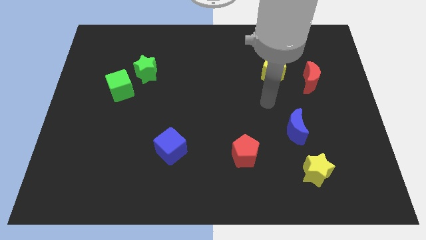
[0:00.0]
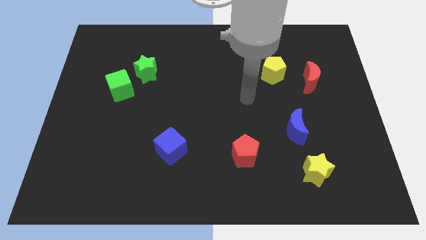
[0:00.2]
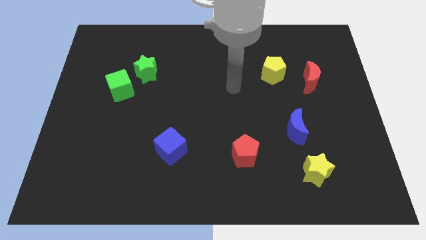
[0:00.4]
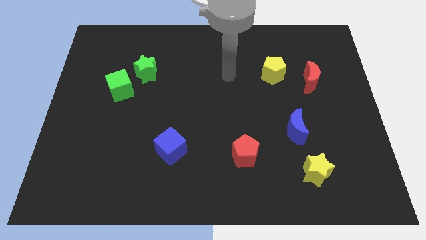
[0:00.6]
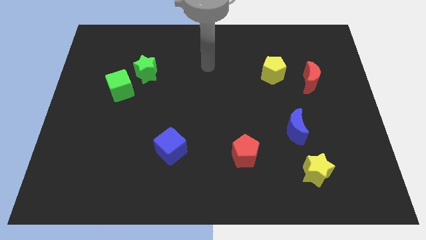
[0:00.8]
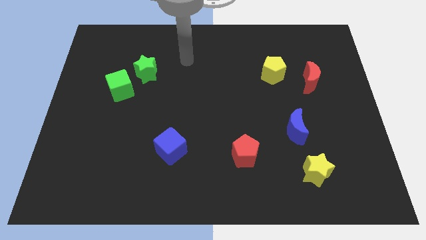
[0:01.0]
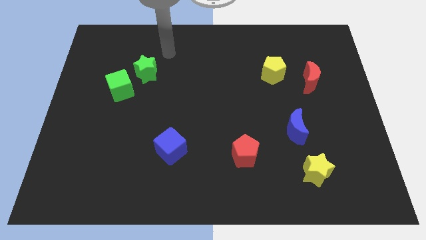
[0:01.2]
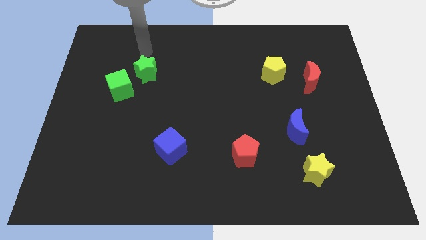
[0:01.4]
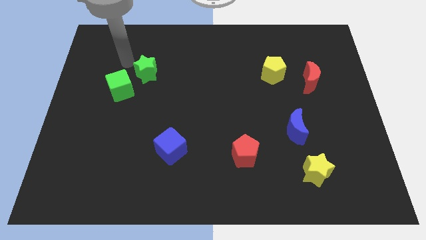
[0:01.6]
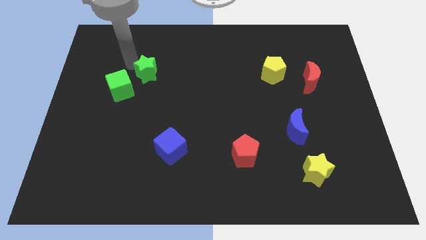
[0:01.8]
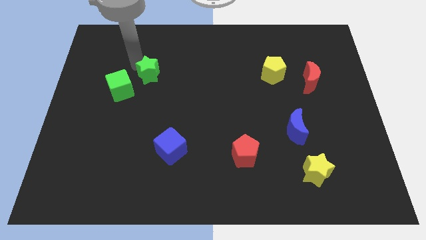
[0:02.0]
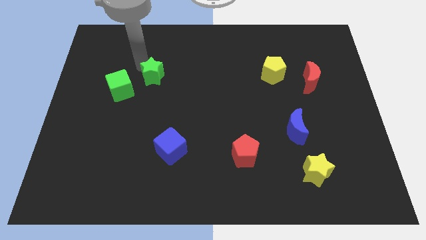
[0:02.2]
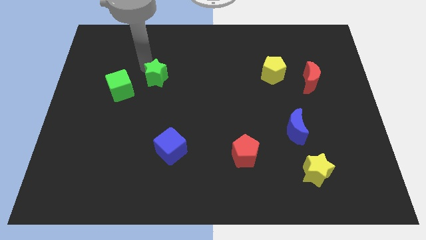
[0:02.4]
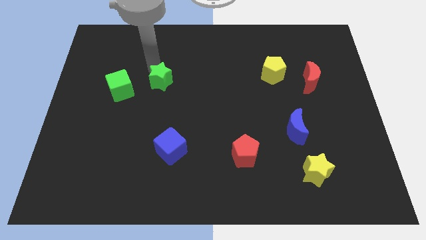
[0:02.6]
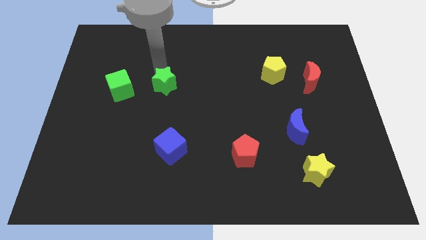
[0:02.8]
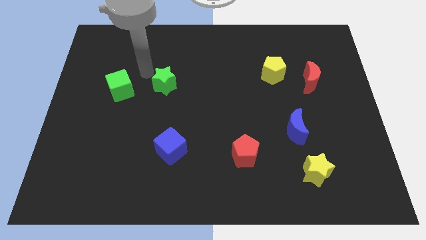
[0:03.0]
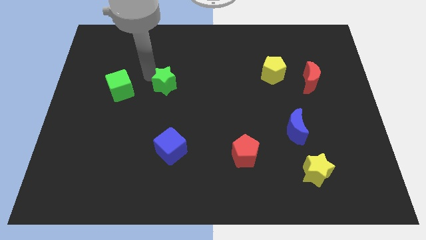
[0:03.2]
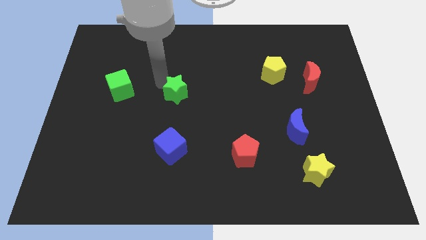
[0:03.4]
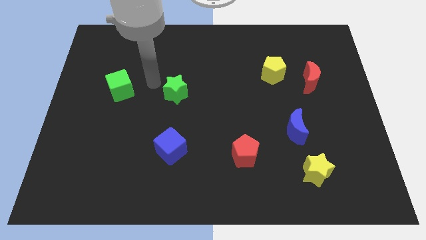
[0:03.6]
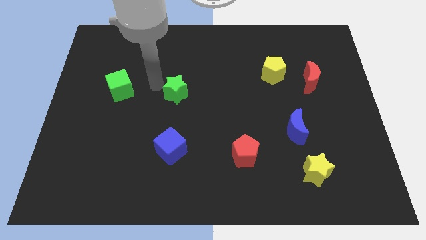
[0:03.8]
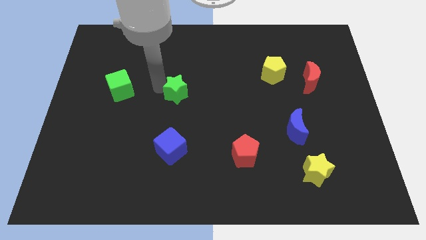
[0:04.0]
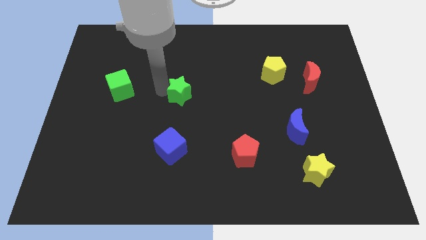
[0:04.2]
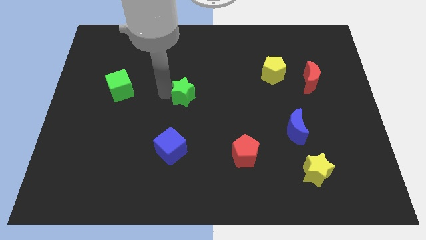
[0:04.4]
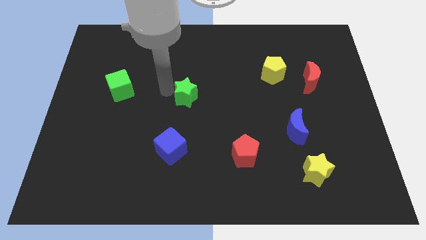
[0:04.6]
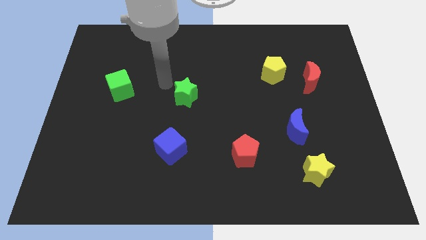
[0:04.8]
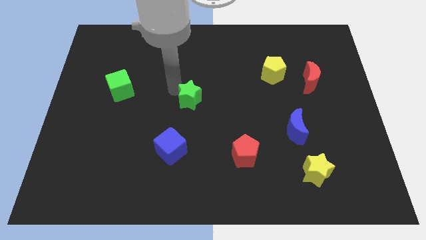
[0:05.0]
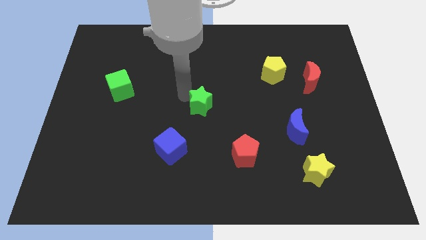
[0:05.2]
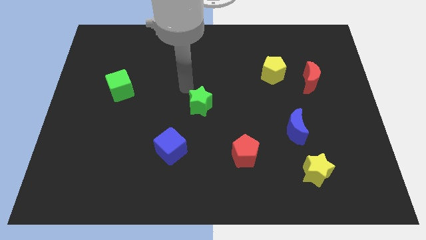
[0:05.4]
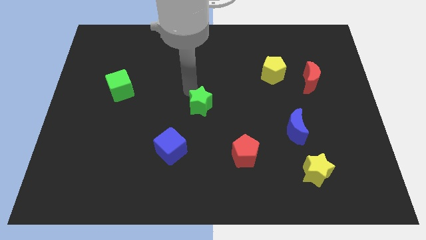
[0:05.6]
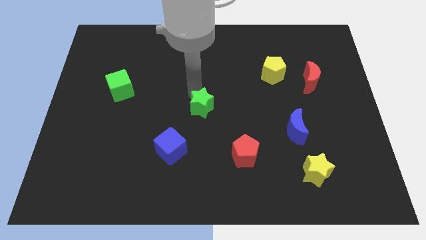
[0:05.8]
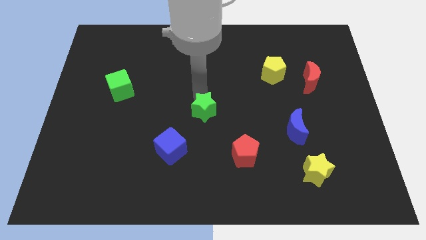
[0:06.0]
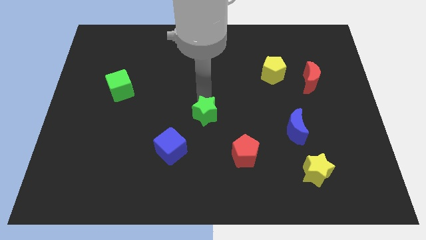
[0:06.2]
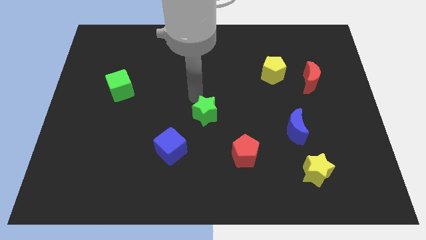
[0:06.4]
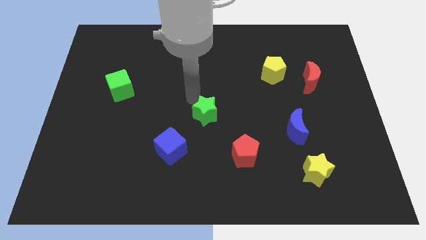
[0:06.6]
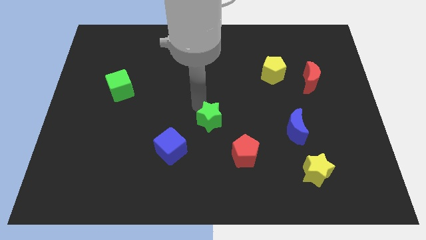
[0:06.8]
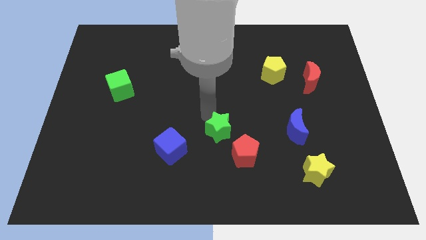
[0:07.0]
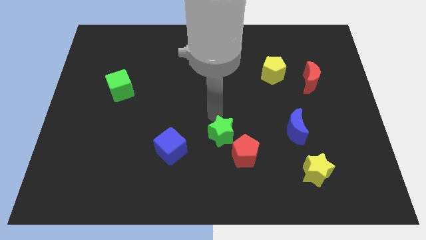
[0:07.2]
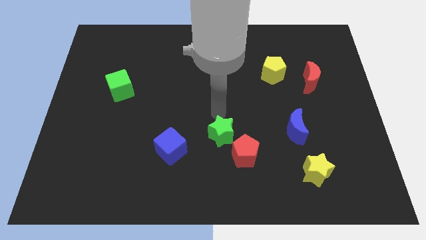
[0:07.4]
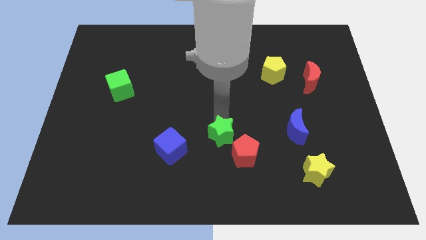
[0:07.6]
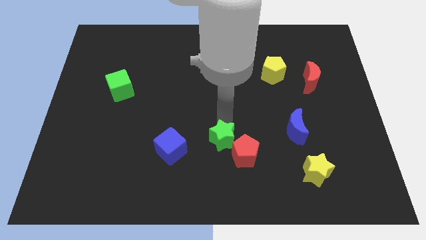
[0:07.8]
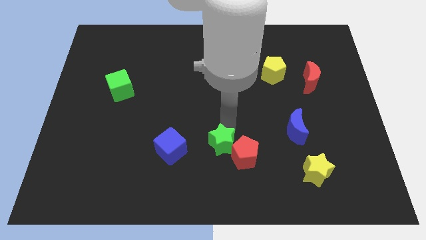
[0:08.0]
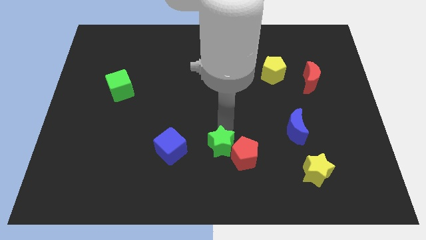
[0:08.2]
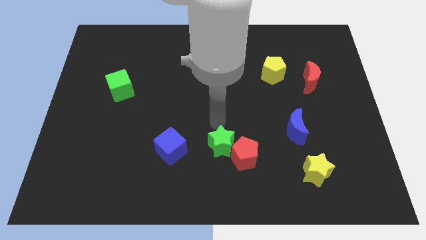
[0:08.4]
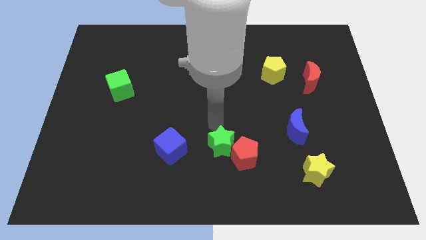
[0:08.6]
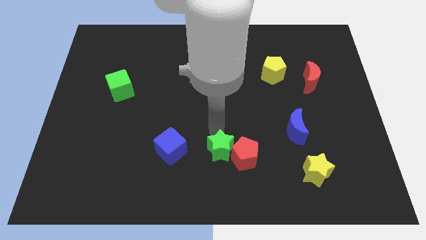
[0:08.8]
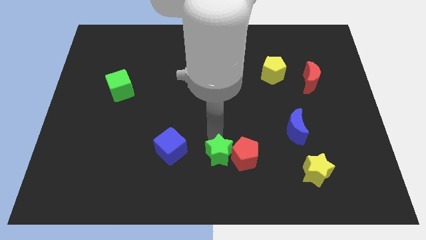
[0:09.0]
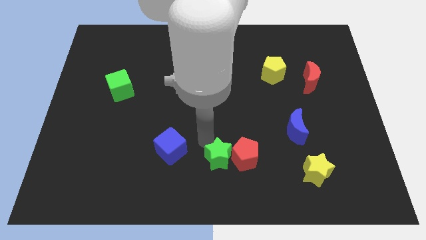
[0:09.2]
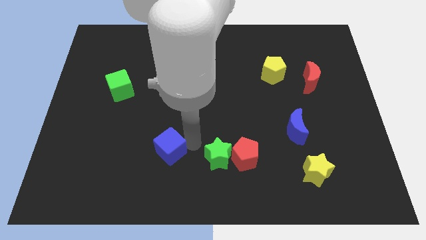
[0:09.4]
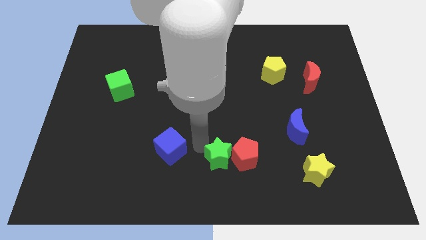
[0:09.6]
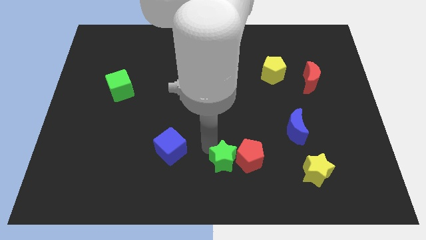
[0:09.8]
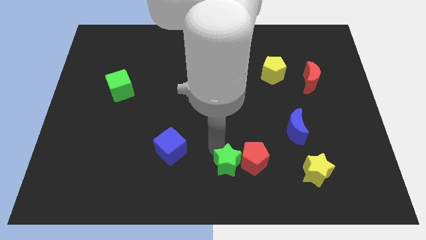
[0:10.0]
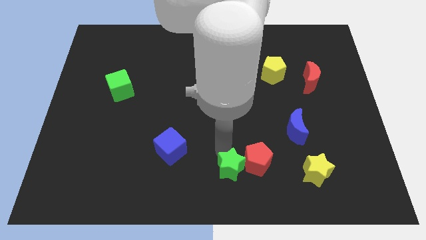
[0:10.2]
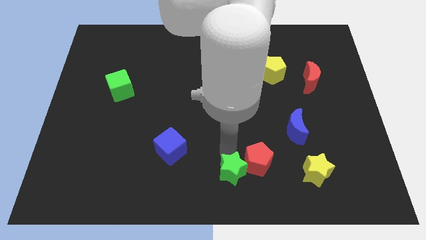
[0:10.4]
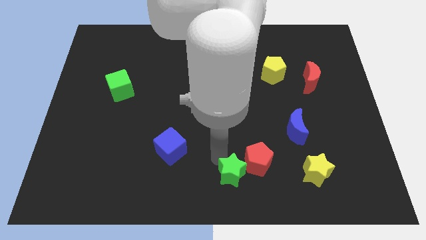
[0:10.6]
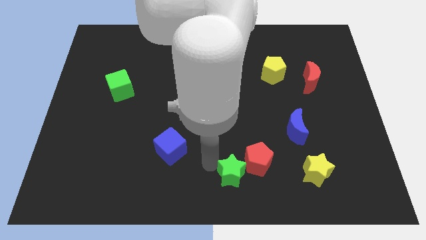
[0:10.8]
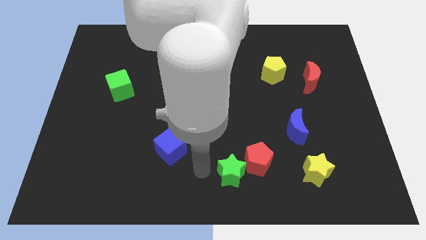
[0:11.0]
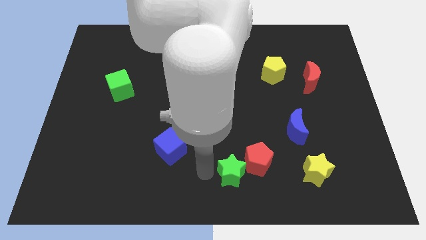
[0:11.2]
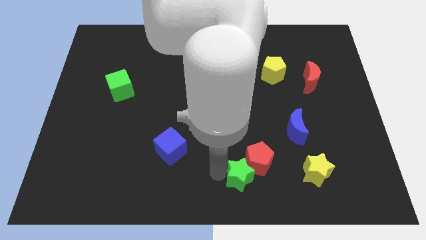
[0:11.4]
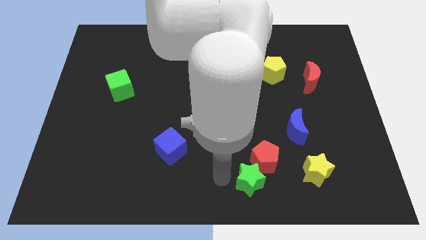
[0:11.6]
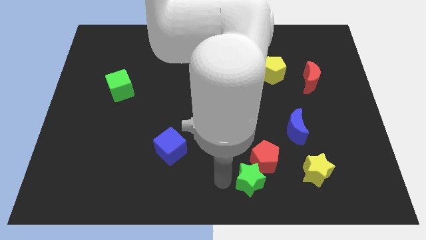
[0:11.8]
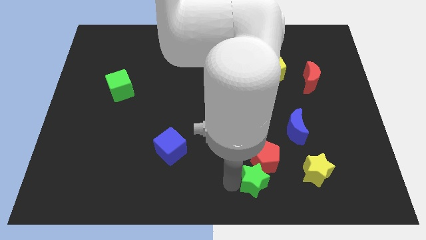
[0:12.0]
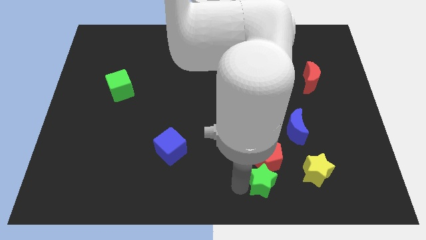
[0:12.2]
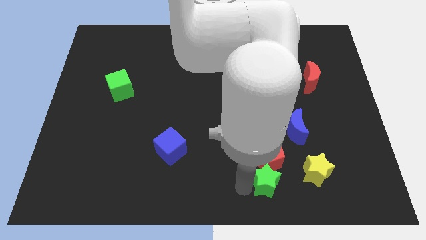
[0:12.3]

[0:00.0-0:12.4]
move the green star to the bottom right side of the red pentagon

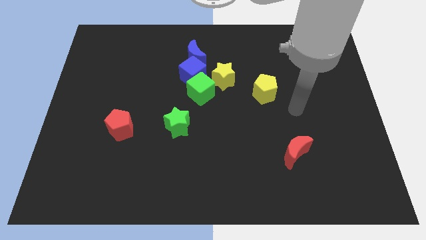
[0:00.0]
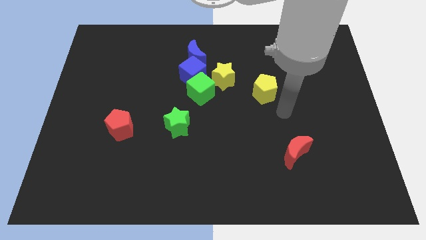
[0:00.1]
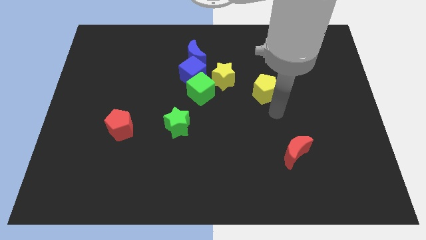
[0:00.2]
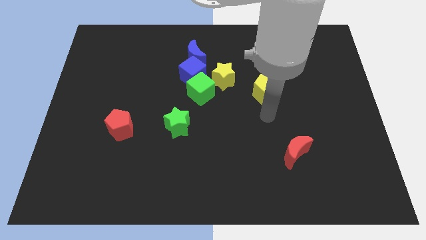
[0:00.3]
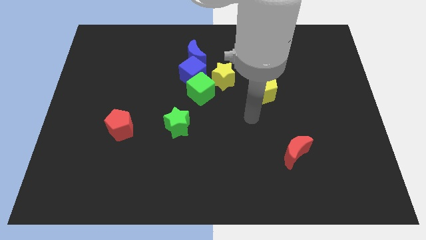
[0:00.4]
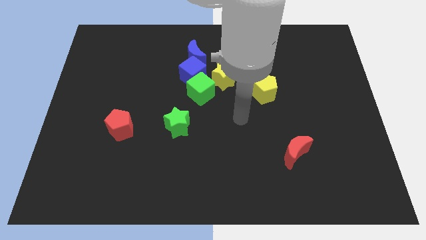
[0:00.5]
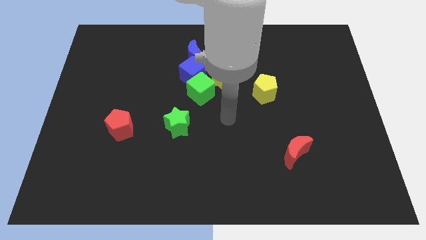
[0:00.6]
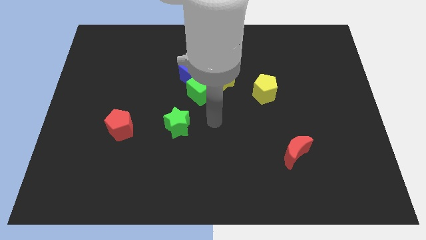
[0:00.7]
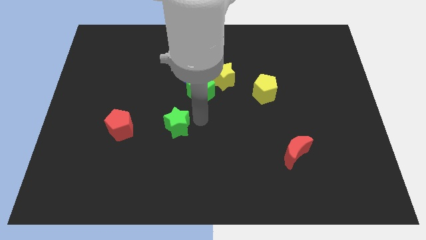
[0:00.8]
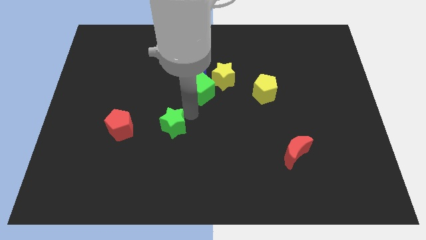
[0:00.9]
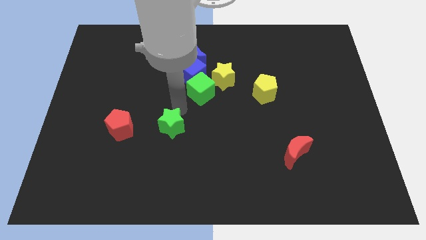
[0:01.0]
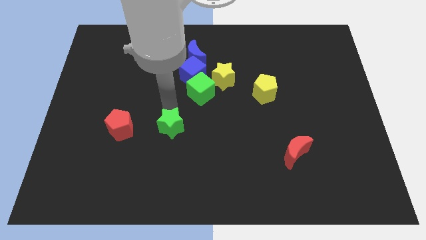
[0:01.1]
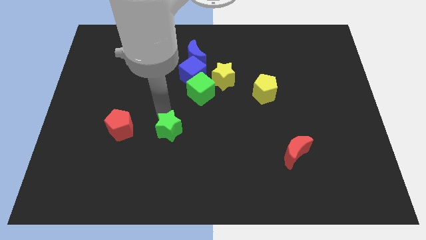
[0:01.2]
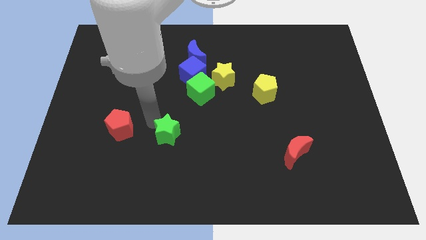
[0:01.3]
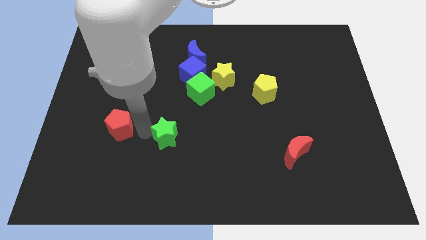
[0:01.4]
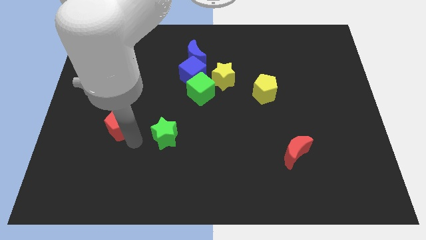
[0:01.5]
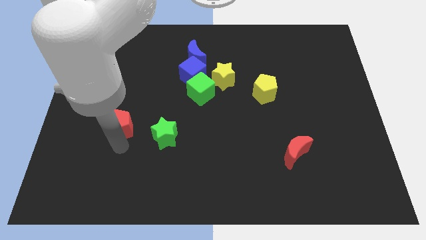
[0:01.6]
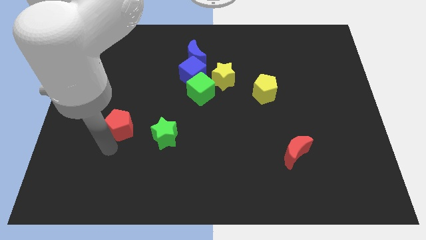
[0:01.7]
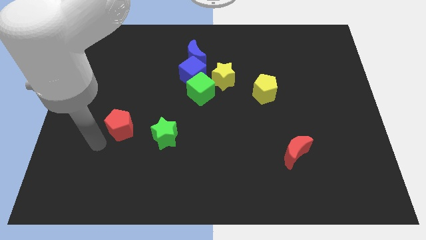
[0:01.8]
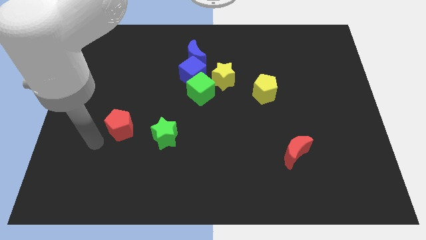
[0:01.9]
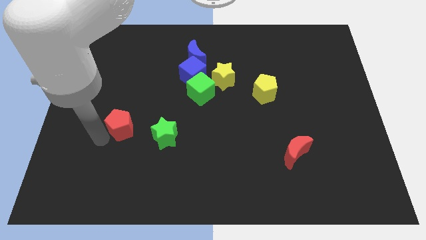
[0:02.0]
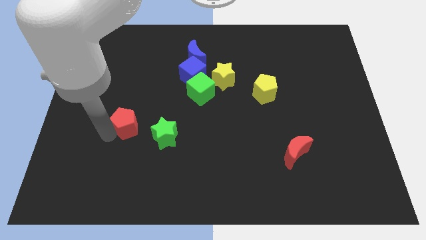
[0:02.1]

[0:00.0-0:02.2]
move the red pentagon diagonally up and to the left of the green star
